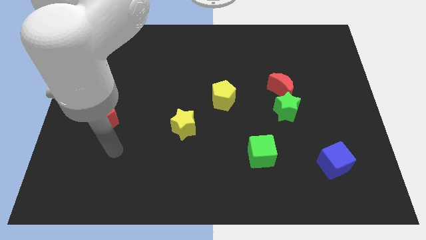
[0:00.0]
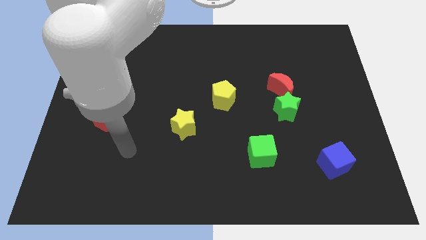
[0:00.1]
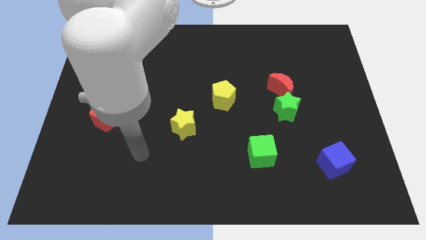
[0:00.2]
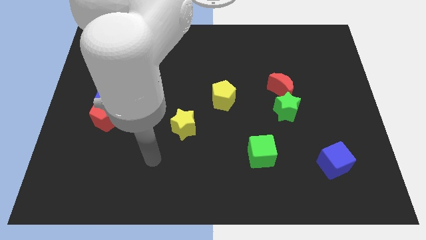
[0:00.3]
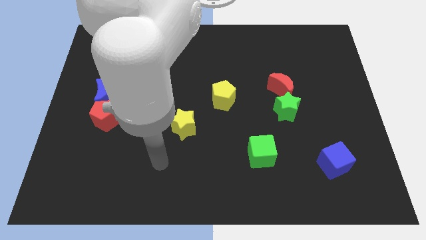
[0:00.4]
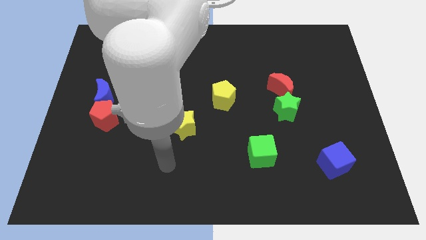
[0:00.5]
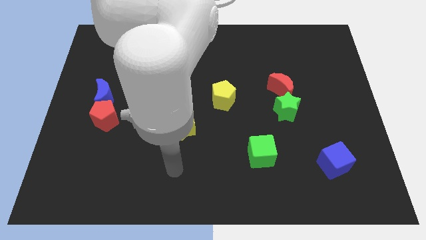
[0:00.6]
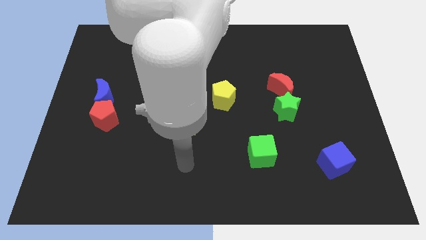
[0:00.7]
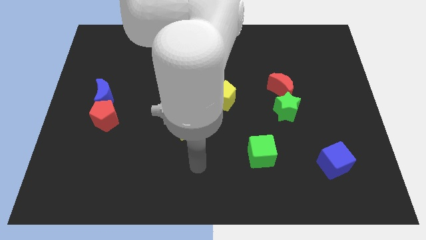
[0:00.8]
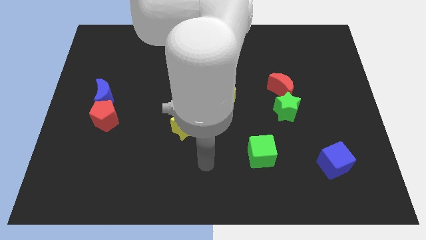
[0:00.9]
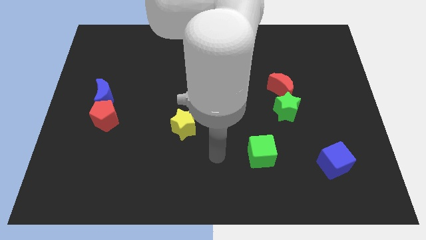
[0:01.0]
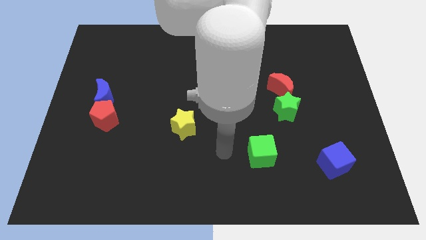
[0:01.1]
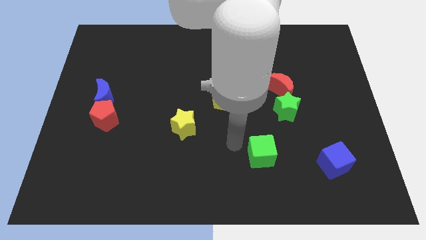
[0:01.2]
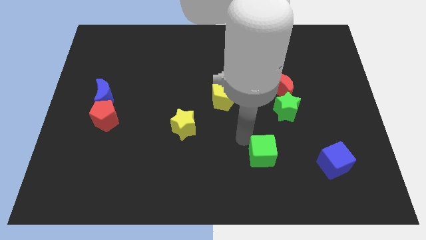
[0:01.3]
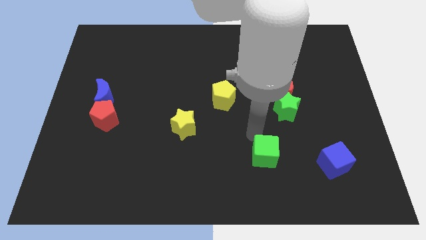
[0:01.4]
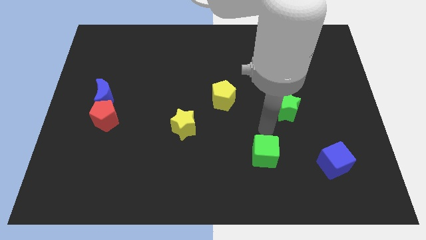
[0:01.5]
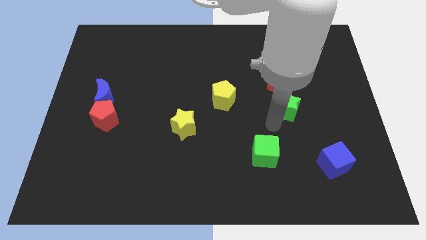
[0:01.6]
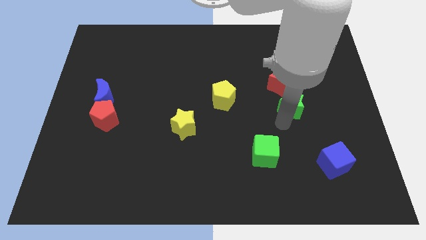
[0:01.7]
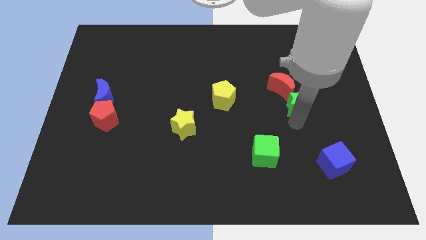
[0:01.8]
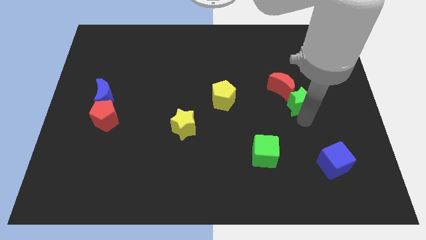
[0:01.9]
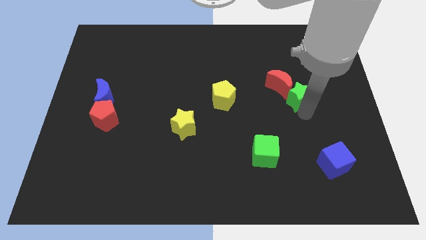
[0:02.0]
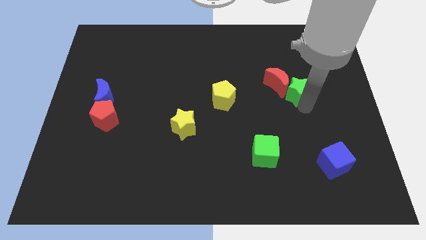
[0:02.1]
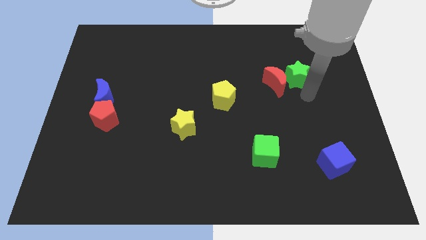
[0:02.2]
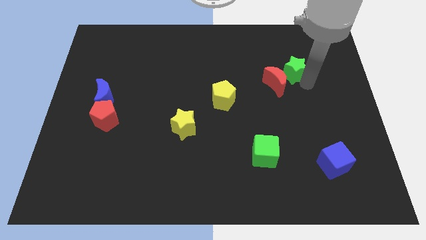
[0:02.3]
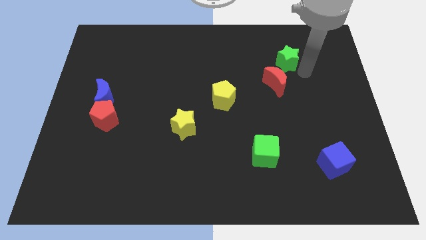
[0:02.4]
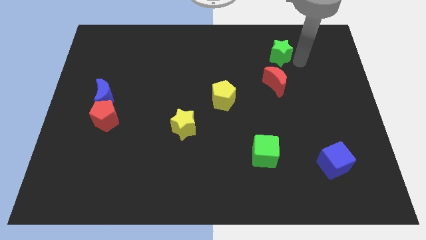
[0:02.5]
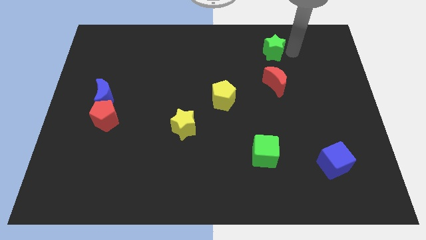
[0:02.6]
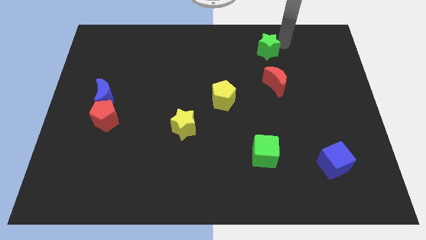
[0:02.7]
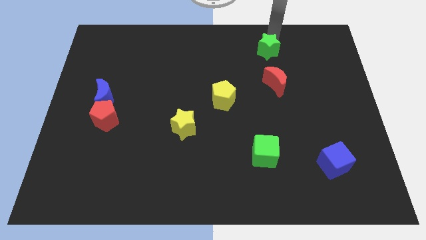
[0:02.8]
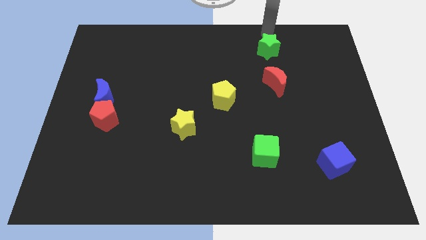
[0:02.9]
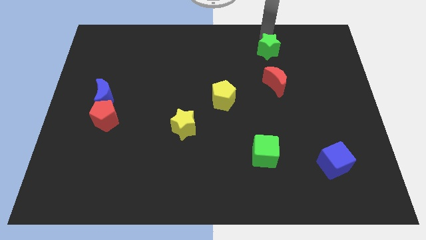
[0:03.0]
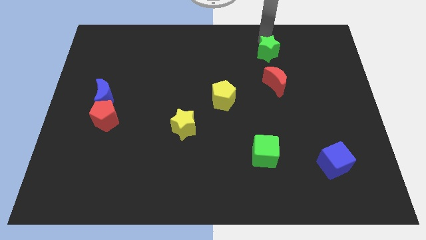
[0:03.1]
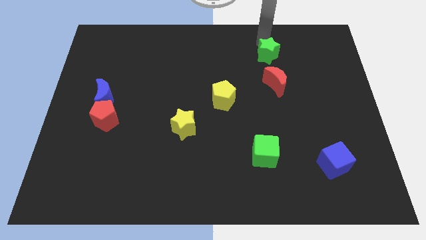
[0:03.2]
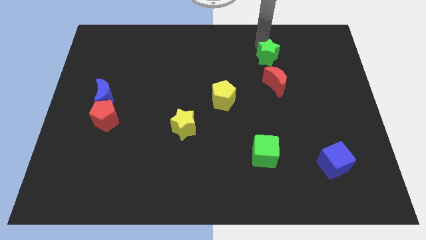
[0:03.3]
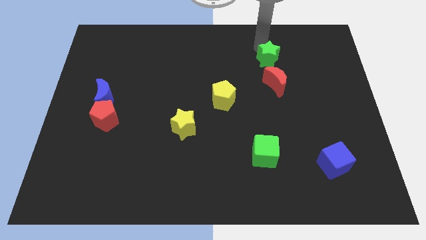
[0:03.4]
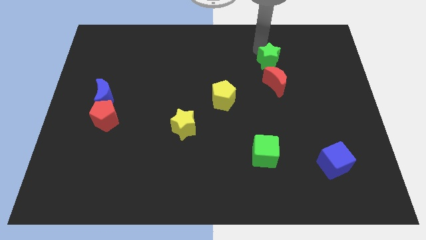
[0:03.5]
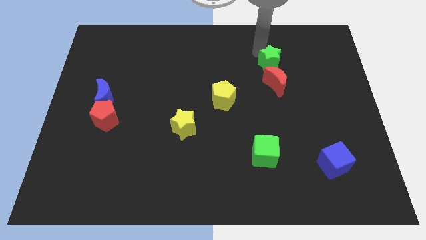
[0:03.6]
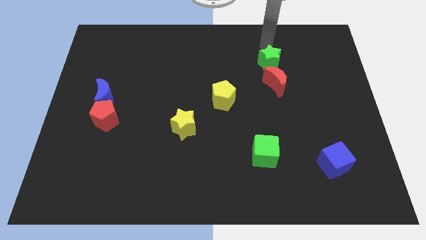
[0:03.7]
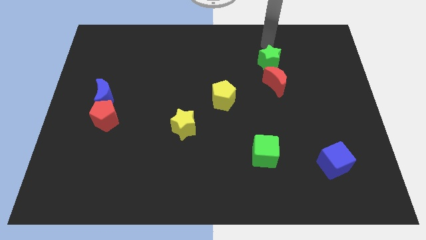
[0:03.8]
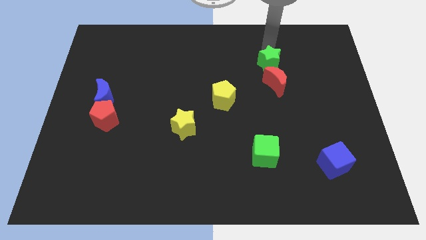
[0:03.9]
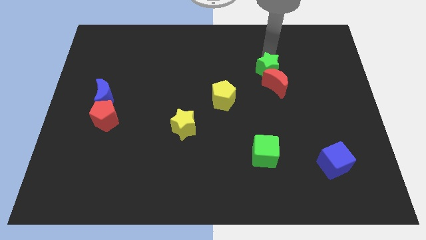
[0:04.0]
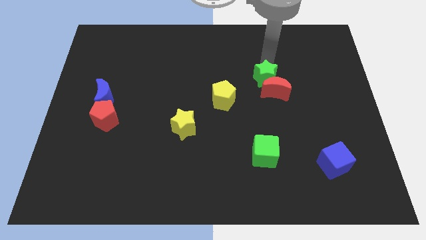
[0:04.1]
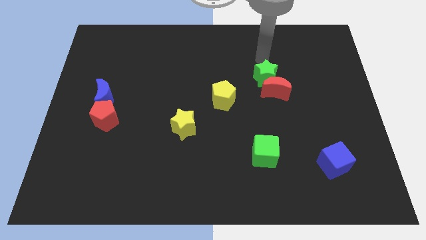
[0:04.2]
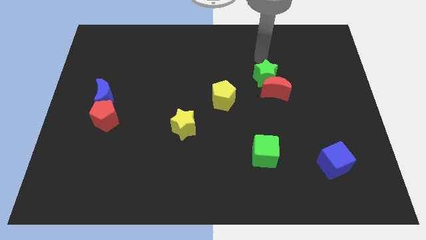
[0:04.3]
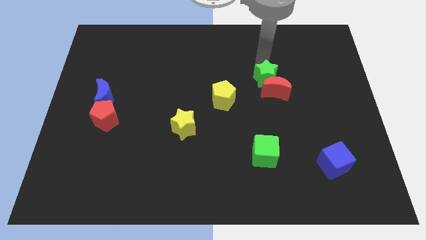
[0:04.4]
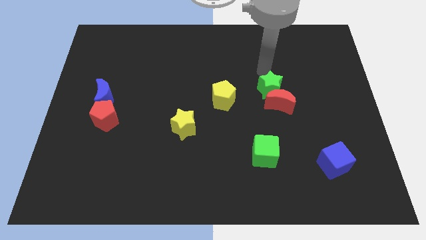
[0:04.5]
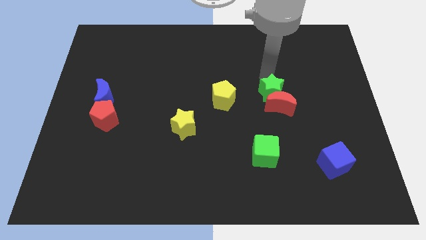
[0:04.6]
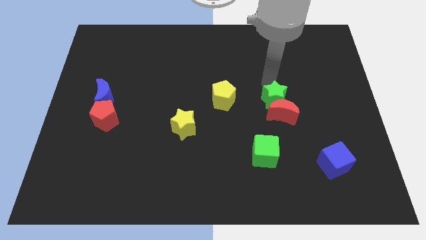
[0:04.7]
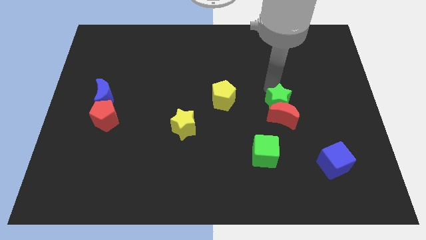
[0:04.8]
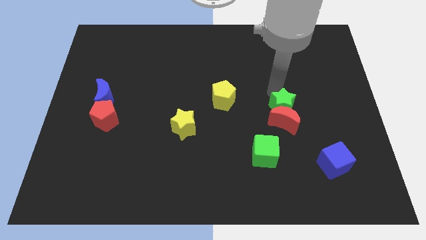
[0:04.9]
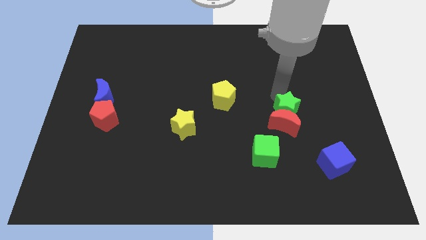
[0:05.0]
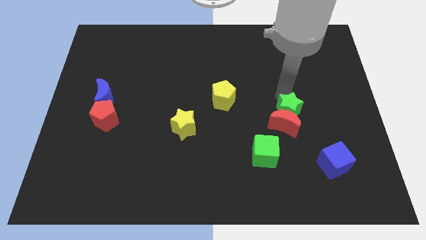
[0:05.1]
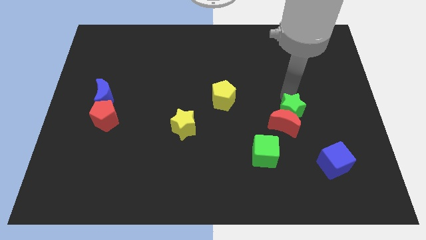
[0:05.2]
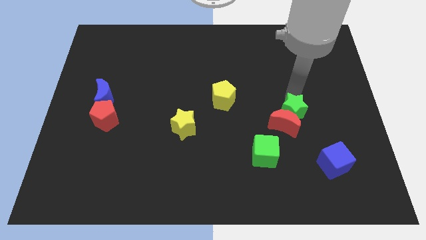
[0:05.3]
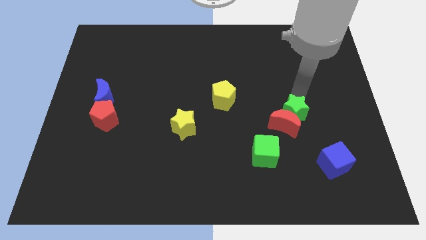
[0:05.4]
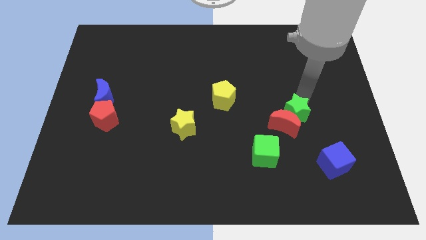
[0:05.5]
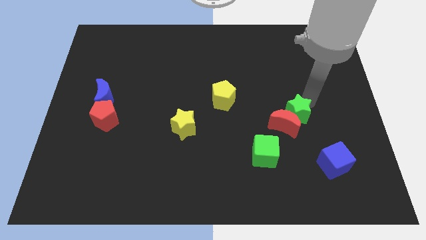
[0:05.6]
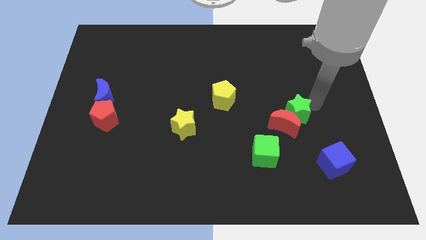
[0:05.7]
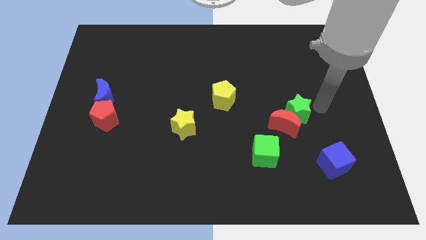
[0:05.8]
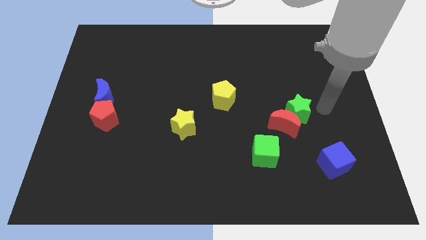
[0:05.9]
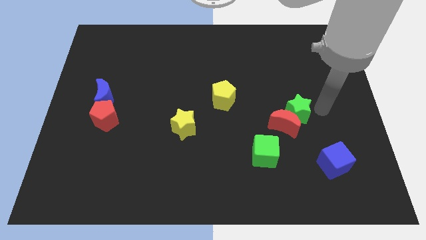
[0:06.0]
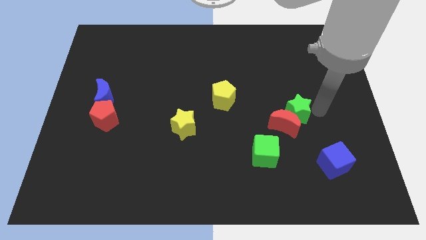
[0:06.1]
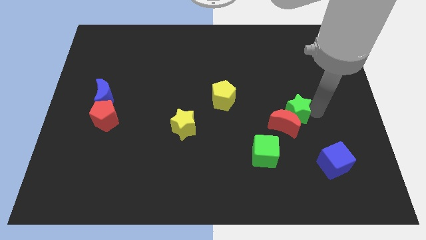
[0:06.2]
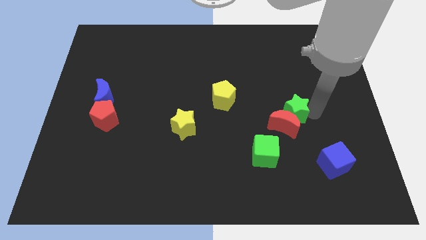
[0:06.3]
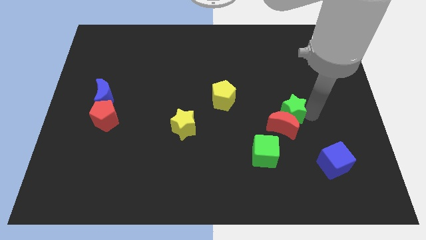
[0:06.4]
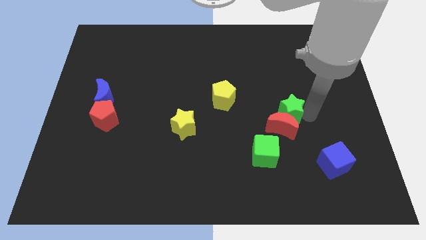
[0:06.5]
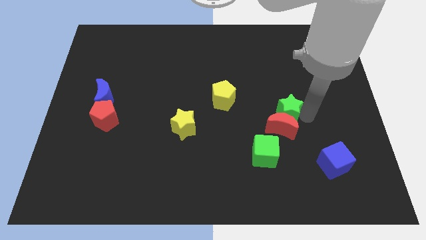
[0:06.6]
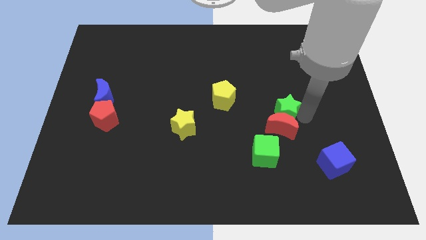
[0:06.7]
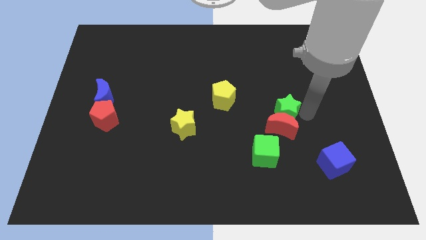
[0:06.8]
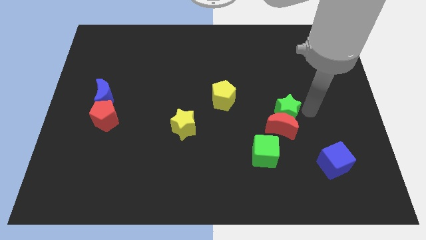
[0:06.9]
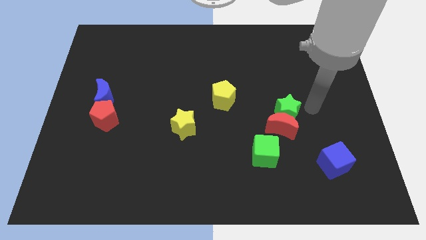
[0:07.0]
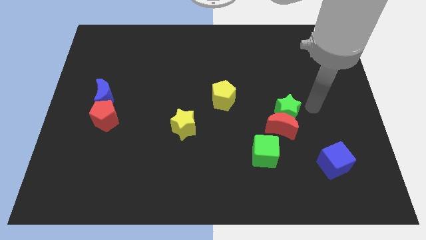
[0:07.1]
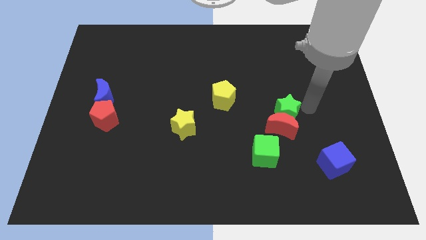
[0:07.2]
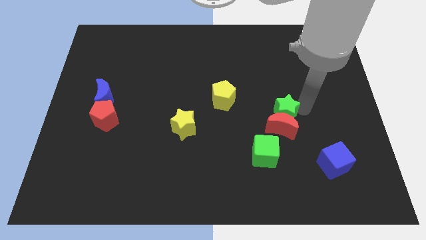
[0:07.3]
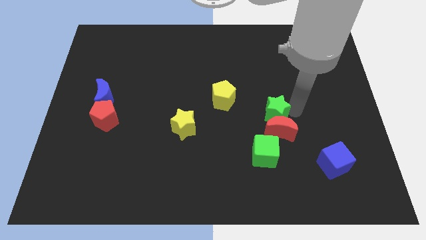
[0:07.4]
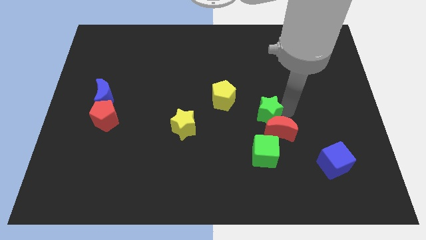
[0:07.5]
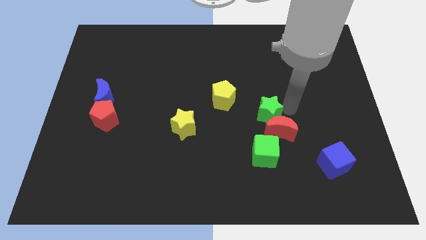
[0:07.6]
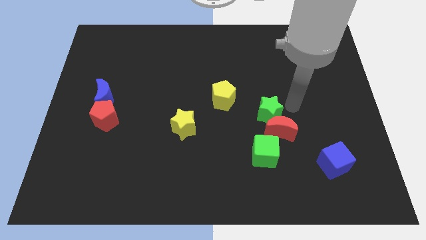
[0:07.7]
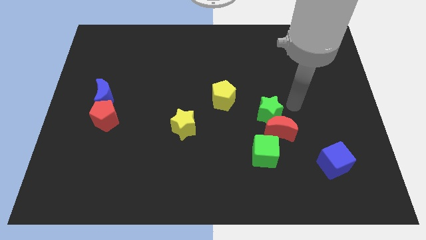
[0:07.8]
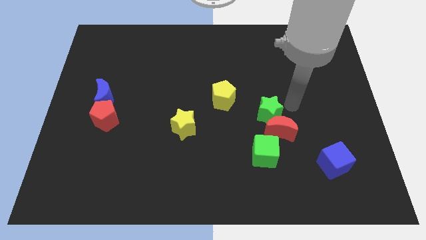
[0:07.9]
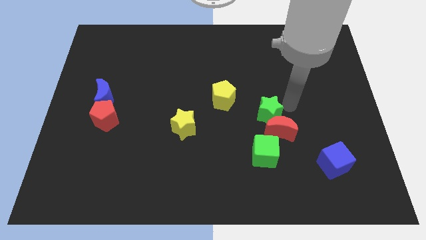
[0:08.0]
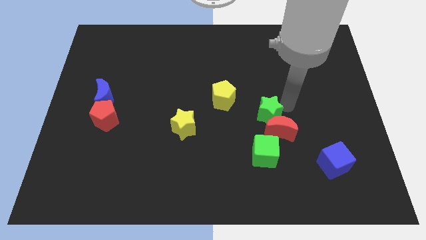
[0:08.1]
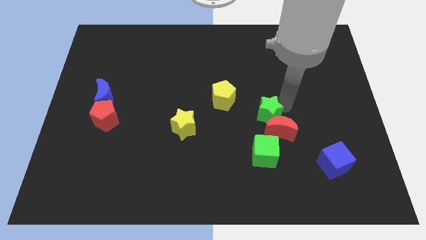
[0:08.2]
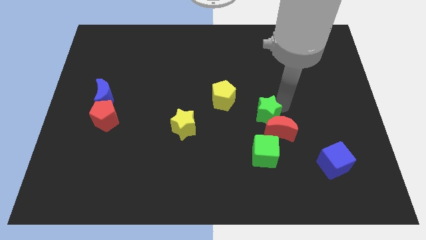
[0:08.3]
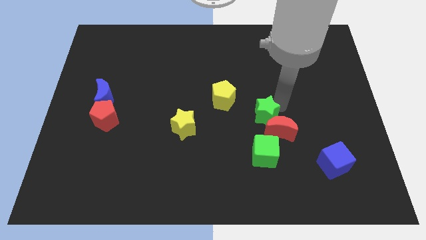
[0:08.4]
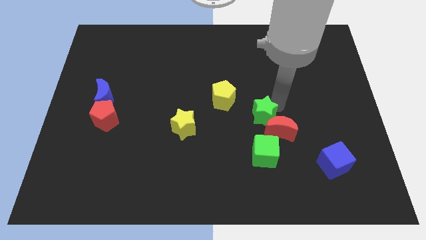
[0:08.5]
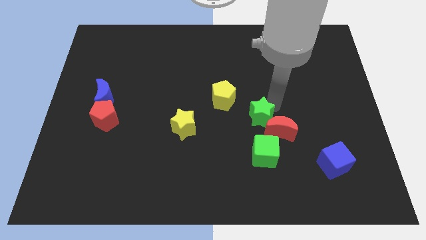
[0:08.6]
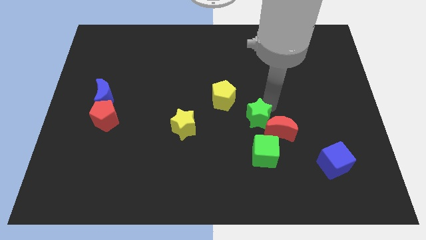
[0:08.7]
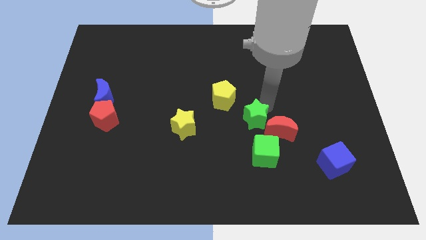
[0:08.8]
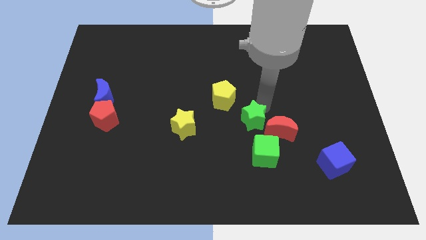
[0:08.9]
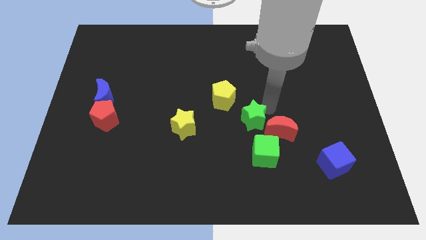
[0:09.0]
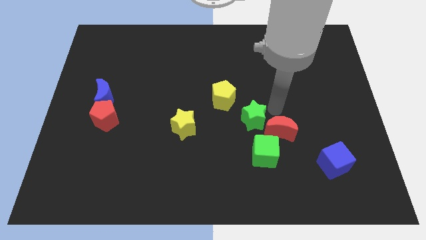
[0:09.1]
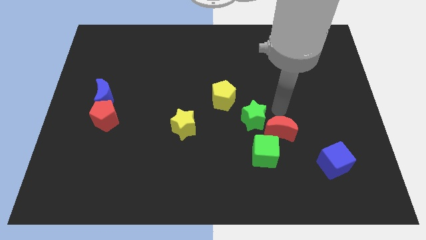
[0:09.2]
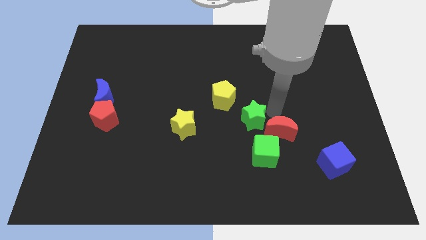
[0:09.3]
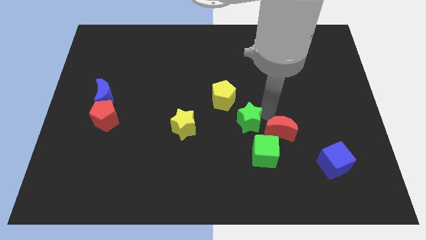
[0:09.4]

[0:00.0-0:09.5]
move the green star to the right of the yellow star
